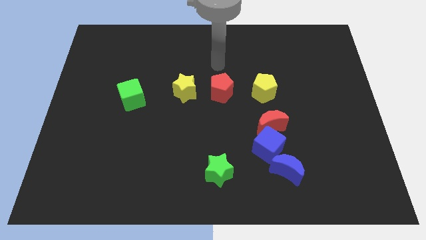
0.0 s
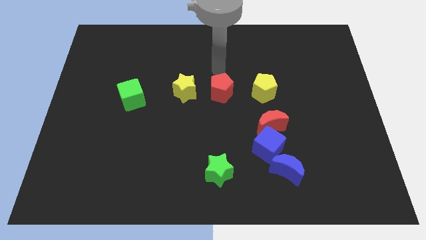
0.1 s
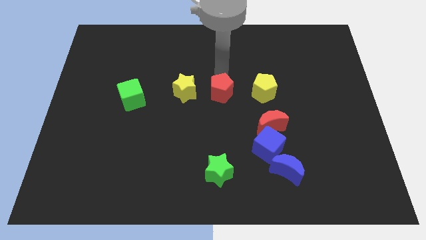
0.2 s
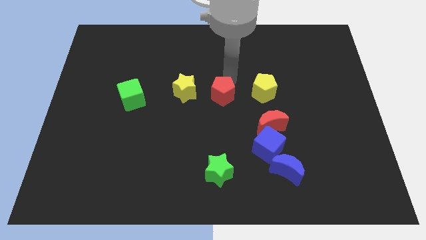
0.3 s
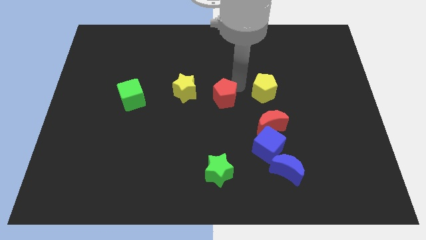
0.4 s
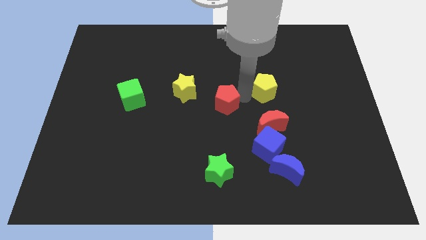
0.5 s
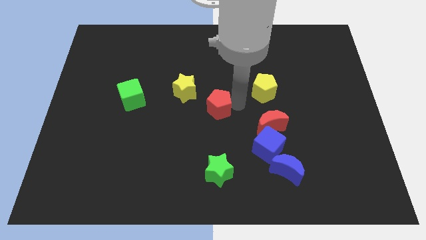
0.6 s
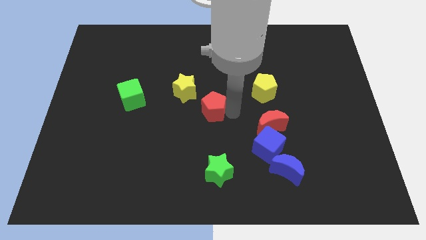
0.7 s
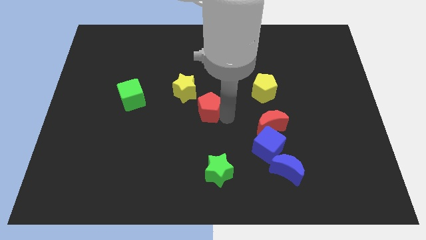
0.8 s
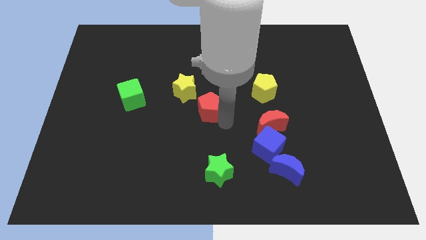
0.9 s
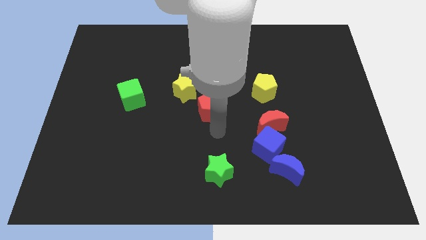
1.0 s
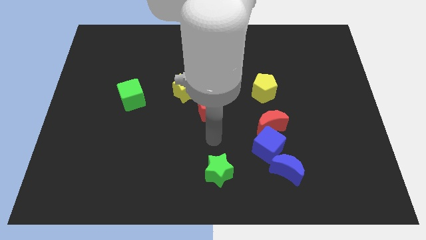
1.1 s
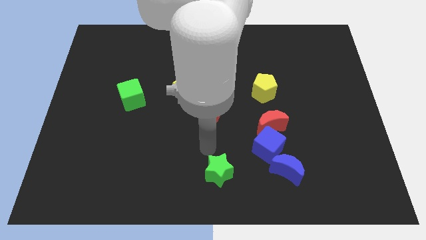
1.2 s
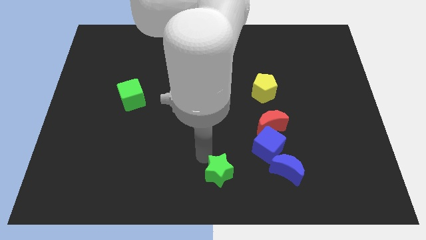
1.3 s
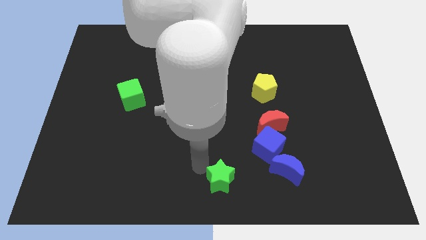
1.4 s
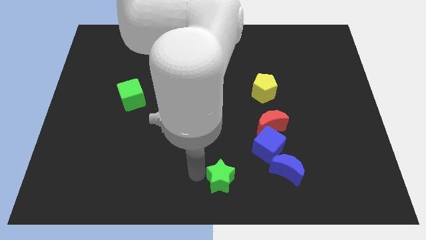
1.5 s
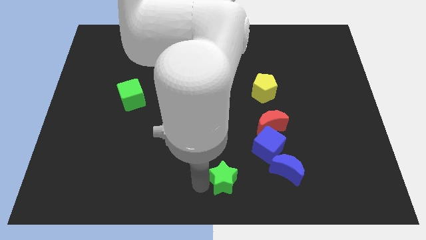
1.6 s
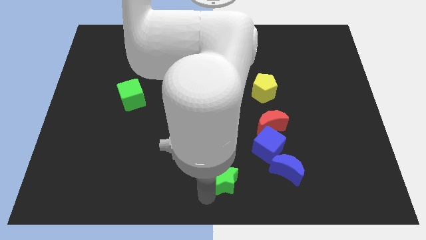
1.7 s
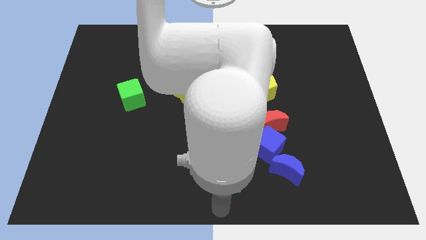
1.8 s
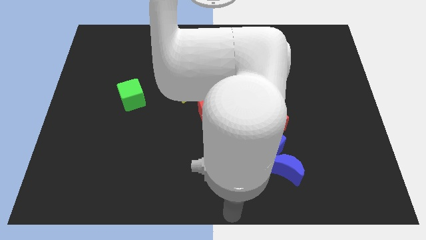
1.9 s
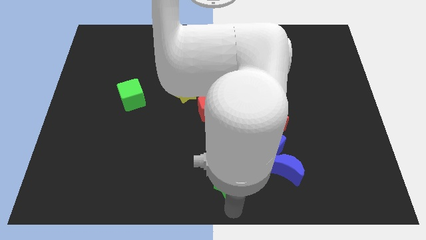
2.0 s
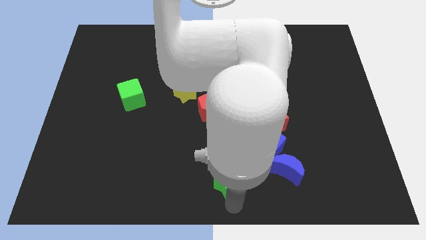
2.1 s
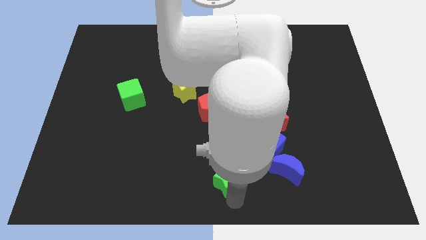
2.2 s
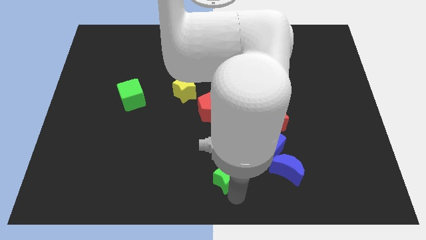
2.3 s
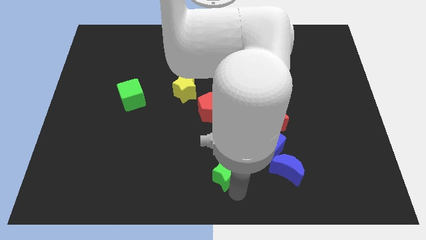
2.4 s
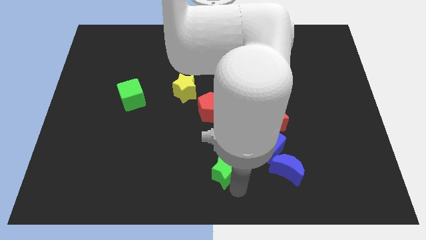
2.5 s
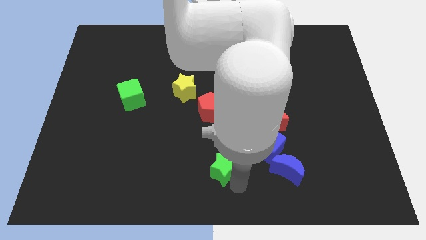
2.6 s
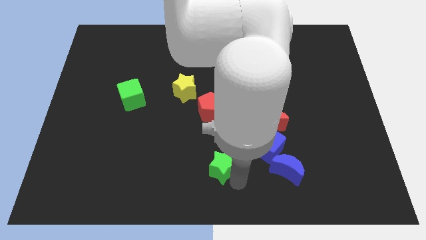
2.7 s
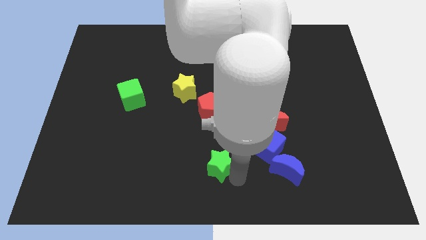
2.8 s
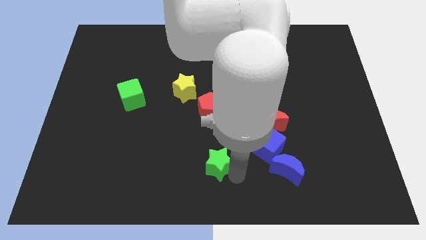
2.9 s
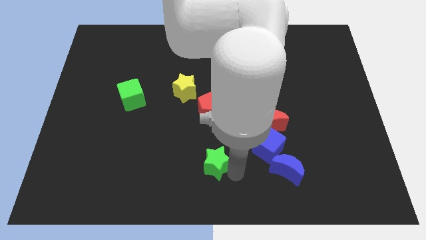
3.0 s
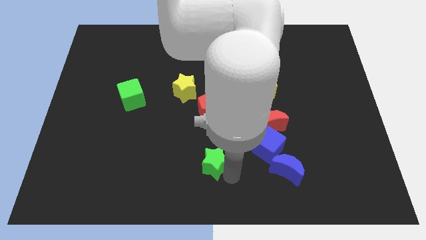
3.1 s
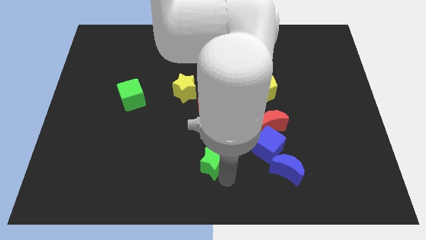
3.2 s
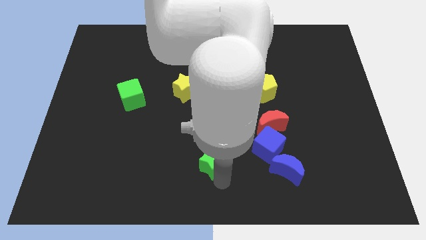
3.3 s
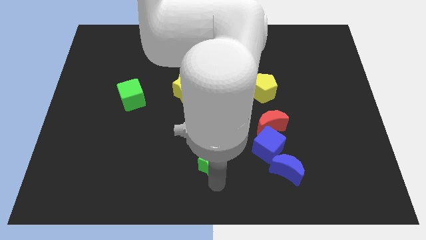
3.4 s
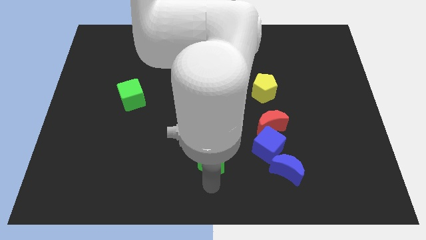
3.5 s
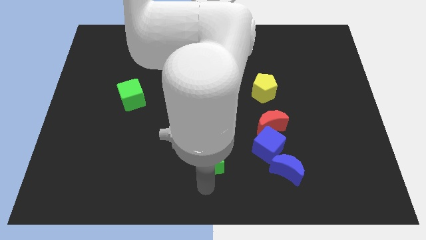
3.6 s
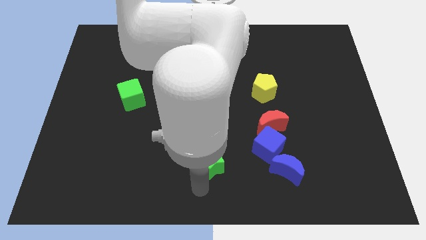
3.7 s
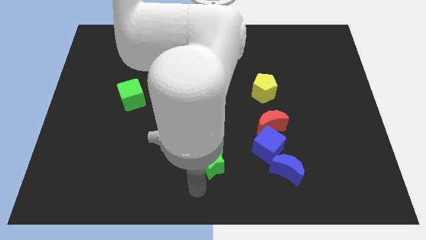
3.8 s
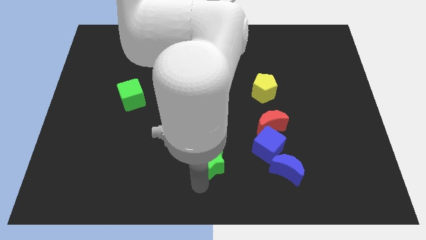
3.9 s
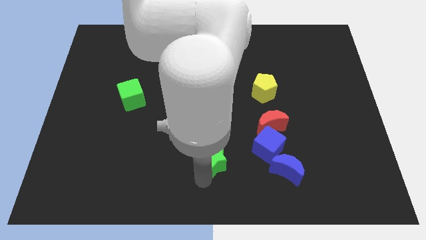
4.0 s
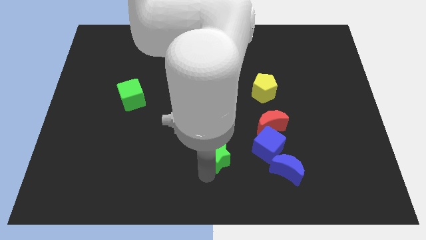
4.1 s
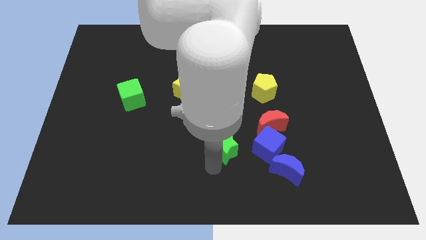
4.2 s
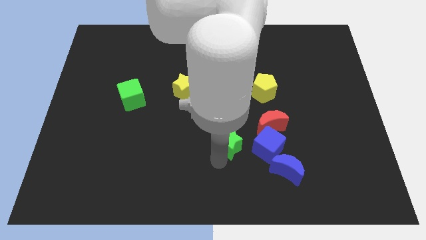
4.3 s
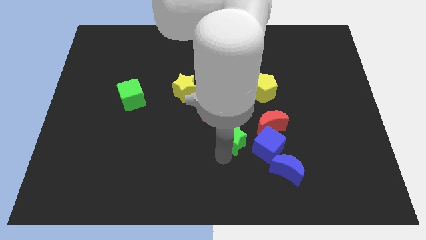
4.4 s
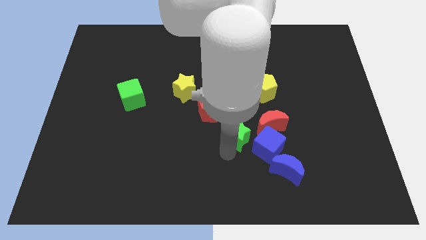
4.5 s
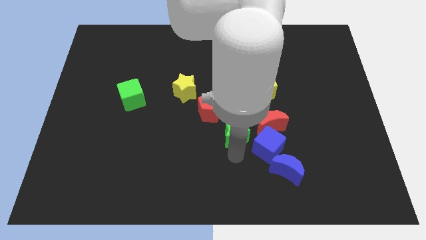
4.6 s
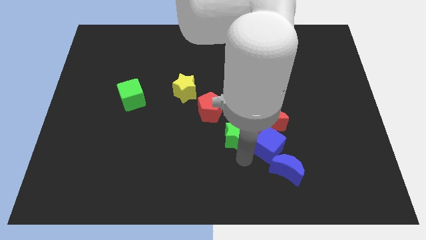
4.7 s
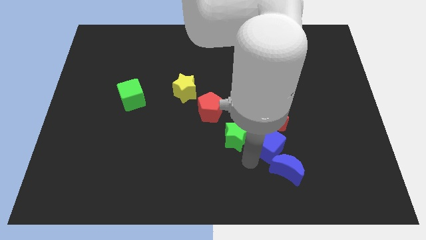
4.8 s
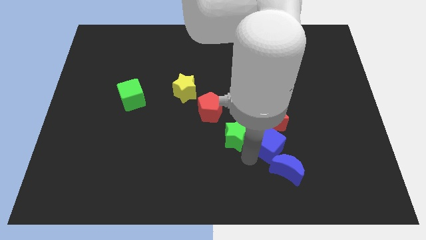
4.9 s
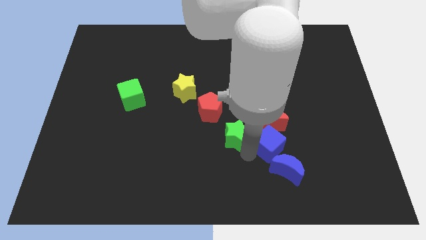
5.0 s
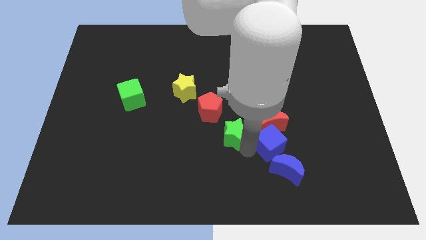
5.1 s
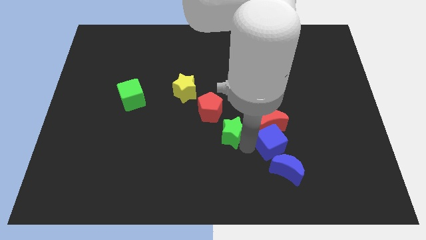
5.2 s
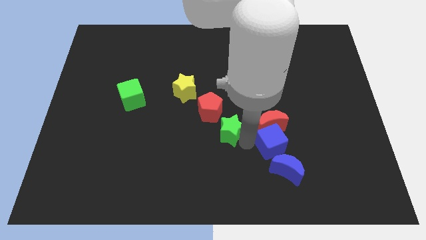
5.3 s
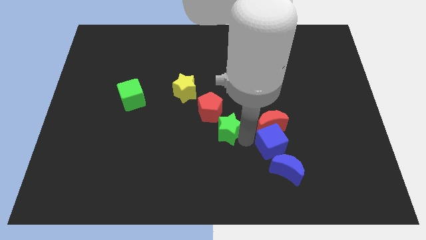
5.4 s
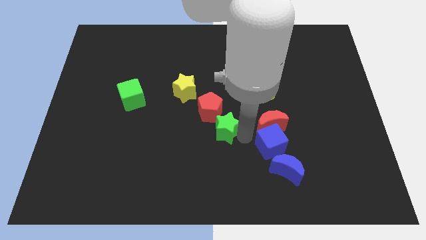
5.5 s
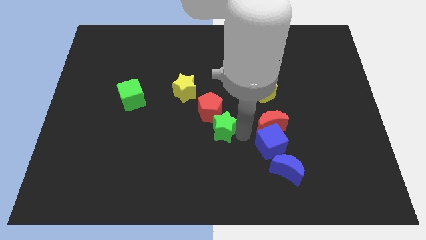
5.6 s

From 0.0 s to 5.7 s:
push the green star next to the red pentagon
